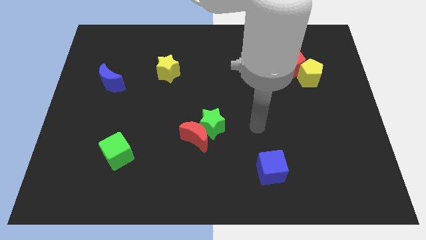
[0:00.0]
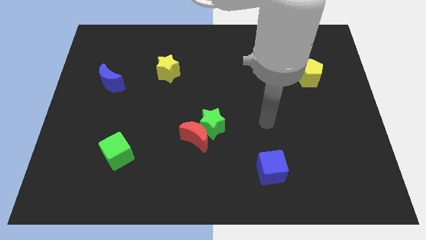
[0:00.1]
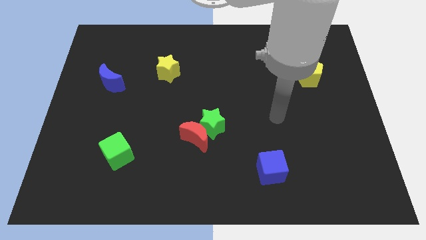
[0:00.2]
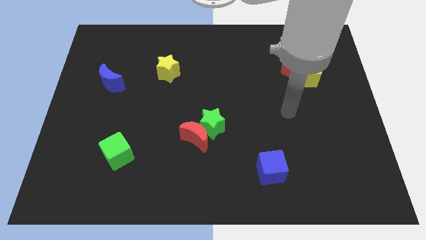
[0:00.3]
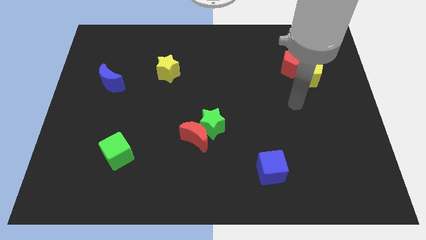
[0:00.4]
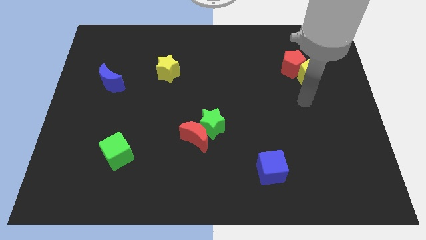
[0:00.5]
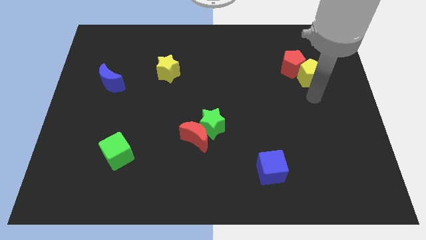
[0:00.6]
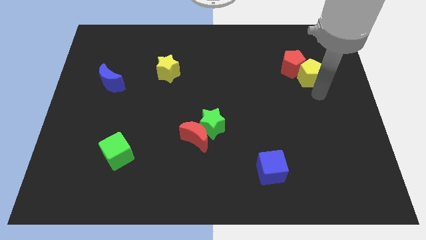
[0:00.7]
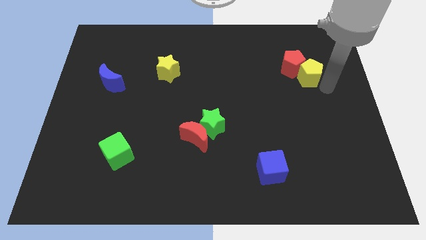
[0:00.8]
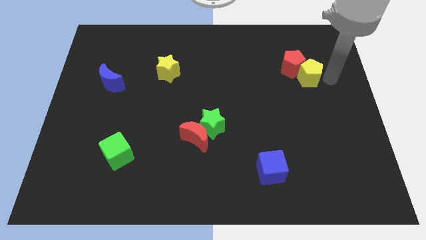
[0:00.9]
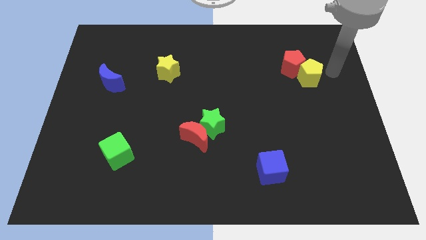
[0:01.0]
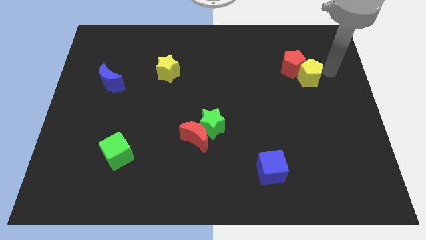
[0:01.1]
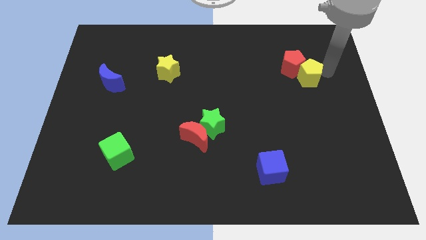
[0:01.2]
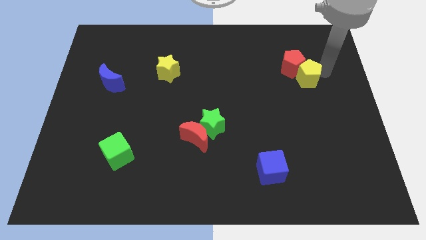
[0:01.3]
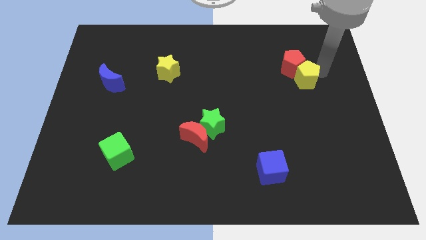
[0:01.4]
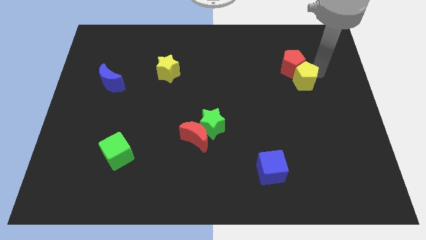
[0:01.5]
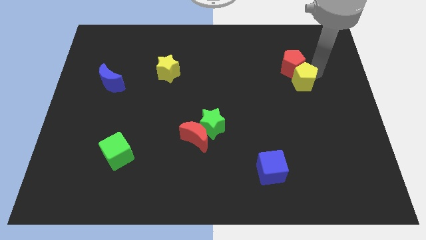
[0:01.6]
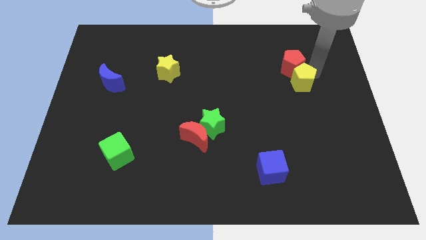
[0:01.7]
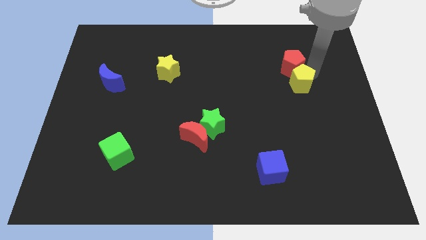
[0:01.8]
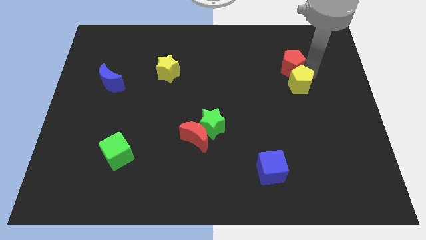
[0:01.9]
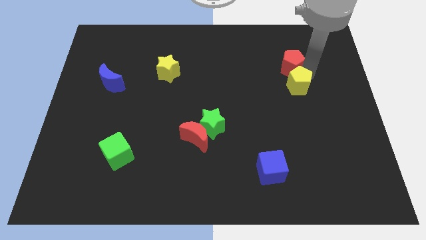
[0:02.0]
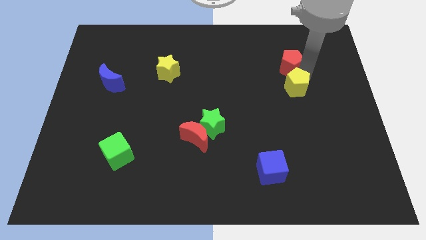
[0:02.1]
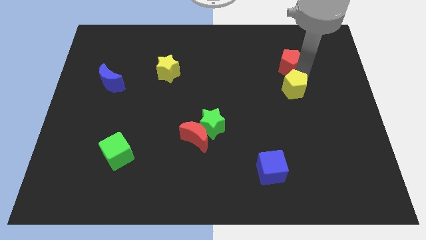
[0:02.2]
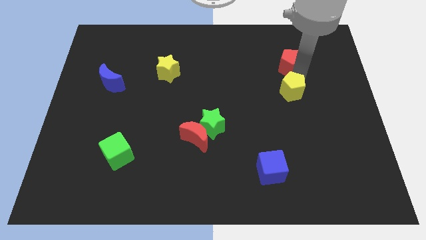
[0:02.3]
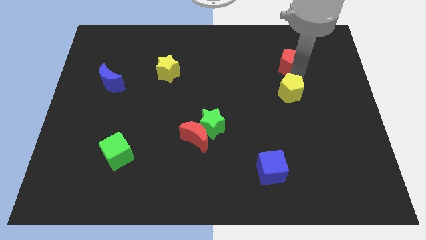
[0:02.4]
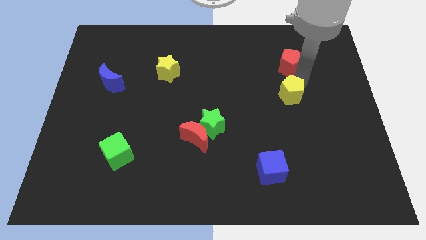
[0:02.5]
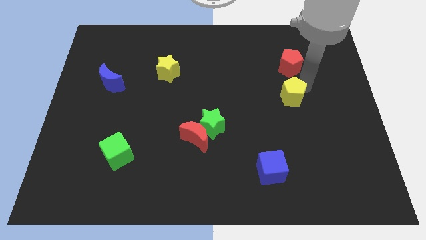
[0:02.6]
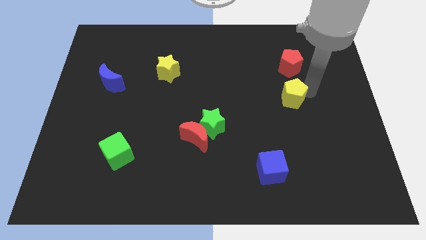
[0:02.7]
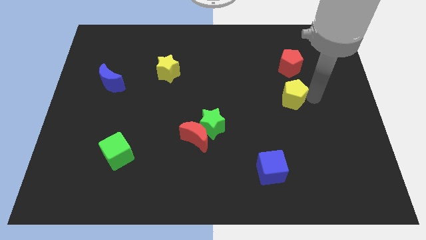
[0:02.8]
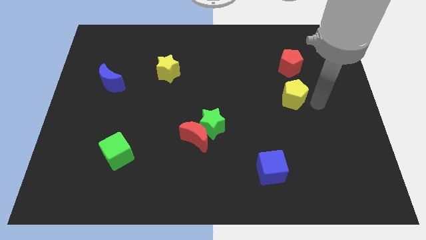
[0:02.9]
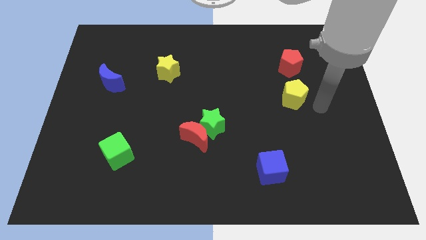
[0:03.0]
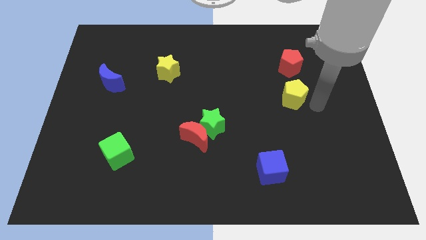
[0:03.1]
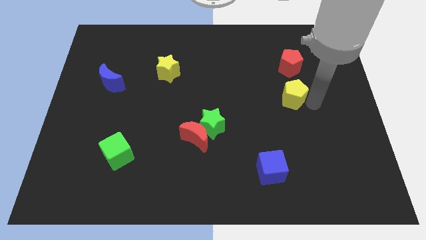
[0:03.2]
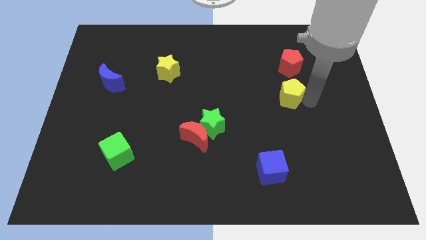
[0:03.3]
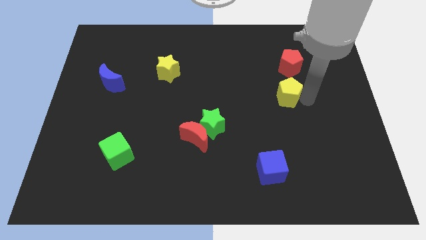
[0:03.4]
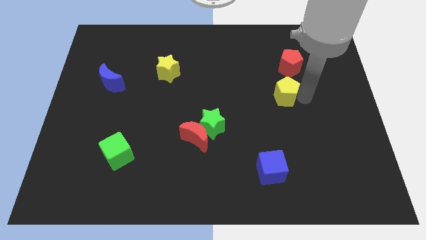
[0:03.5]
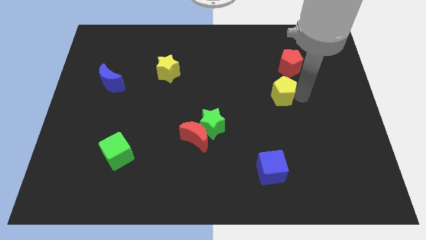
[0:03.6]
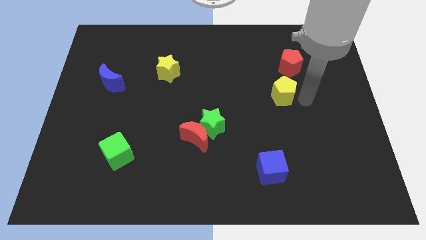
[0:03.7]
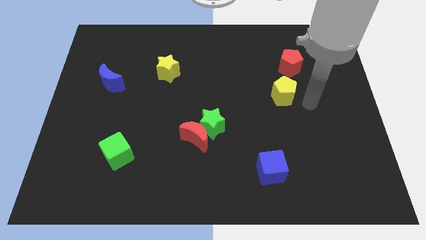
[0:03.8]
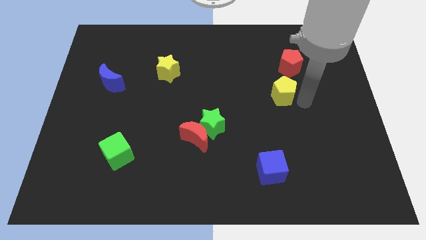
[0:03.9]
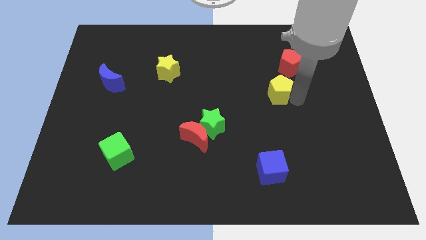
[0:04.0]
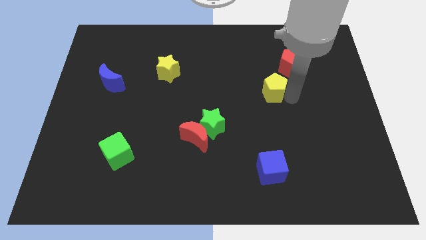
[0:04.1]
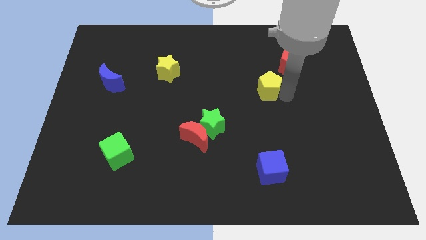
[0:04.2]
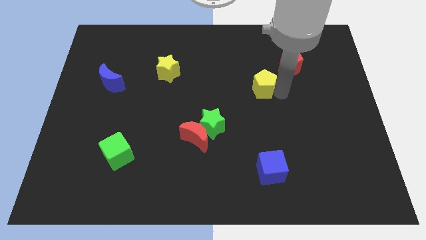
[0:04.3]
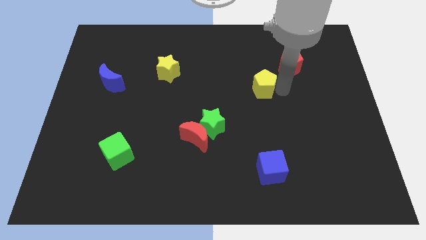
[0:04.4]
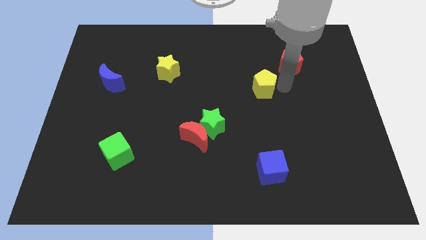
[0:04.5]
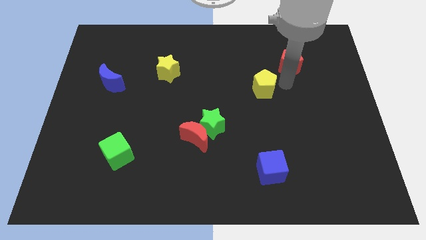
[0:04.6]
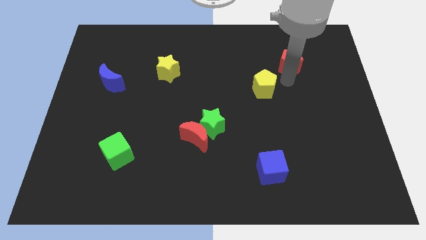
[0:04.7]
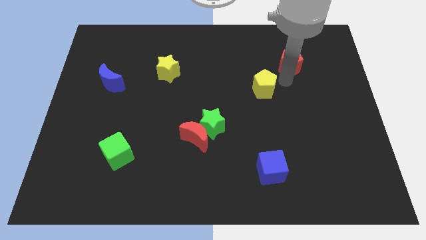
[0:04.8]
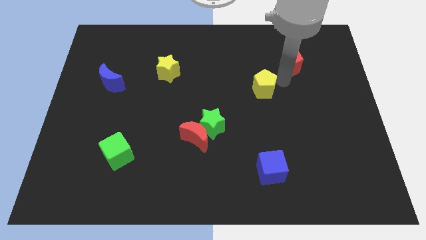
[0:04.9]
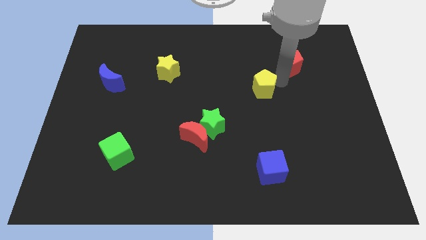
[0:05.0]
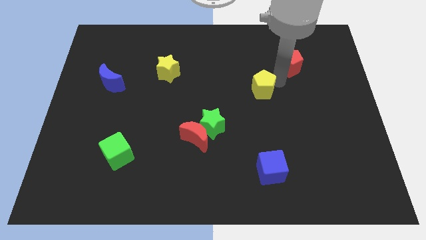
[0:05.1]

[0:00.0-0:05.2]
put the yellow pentagon to the middle

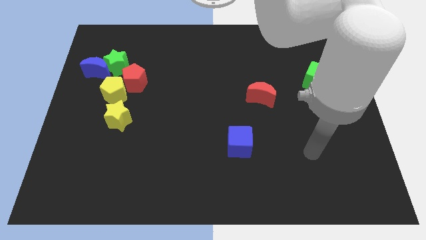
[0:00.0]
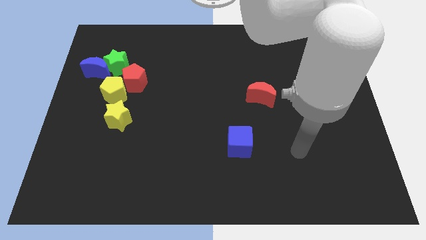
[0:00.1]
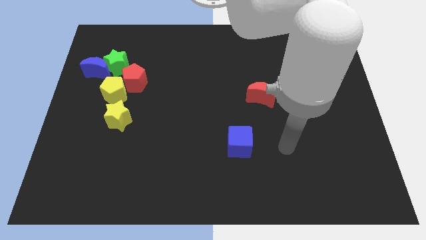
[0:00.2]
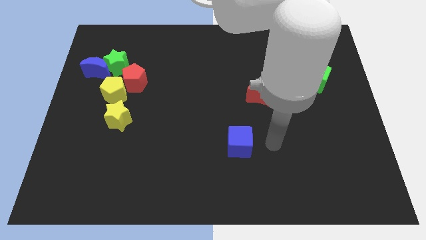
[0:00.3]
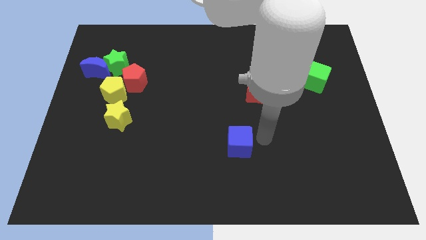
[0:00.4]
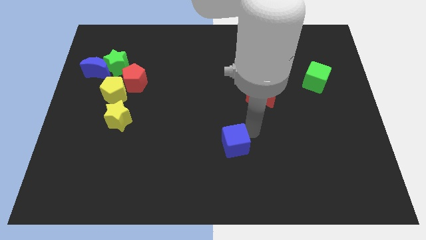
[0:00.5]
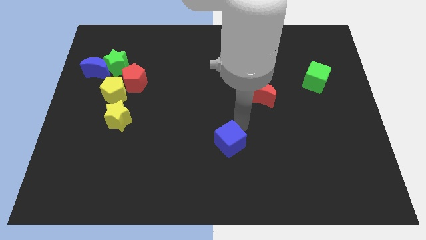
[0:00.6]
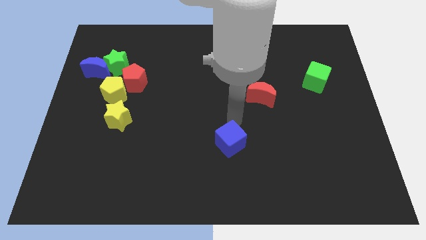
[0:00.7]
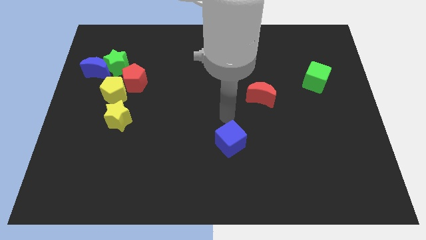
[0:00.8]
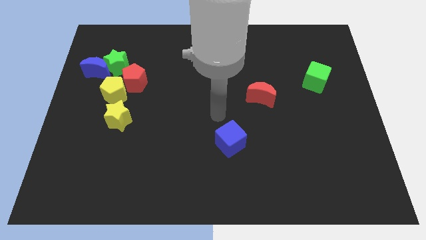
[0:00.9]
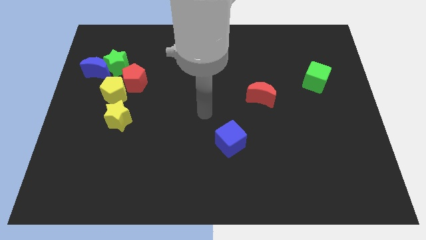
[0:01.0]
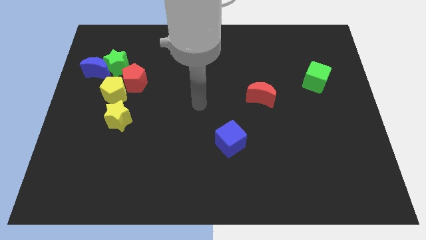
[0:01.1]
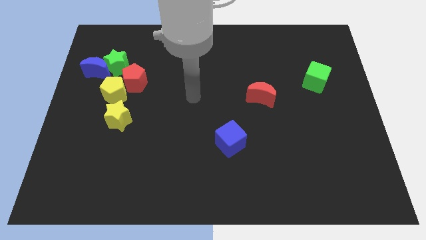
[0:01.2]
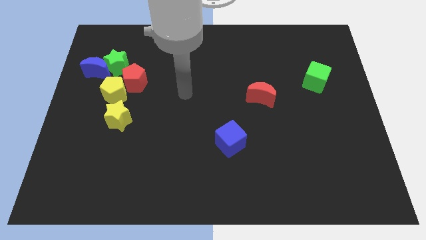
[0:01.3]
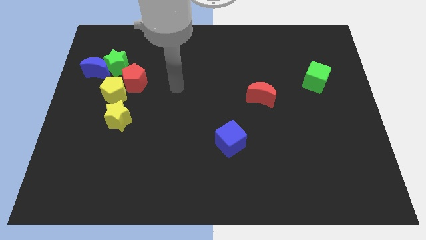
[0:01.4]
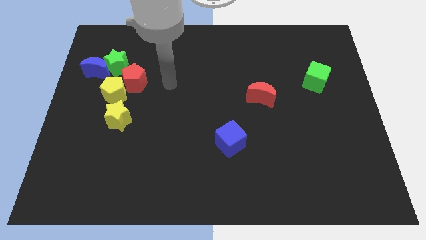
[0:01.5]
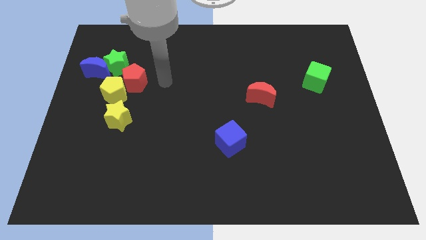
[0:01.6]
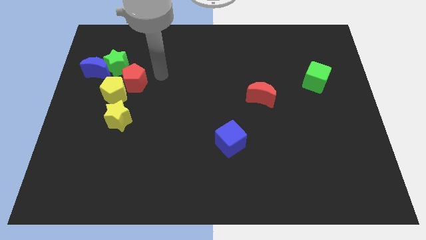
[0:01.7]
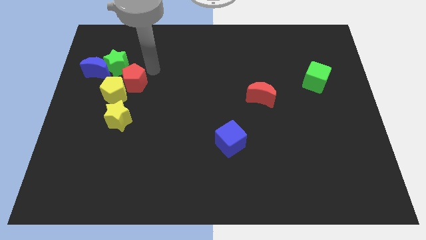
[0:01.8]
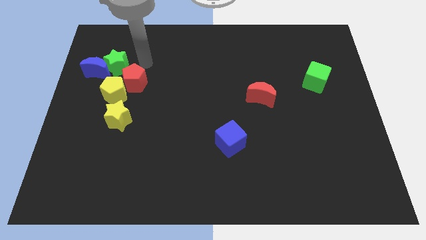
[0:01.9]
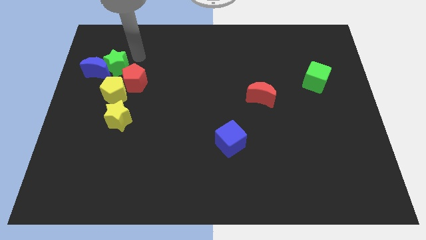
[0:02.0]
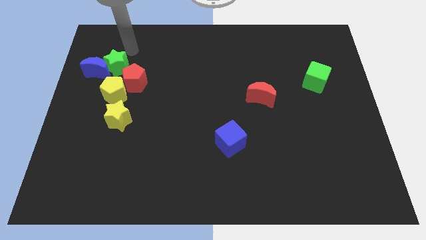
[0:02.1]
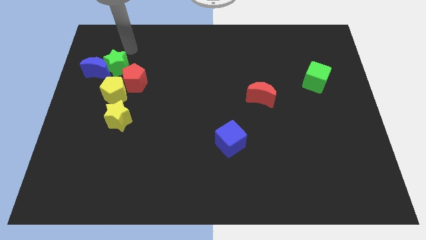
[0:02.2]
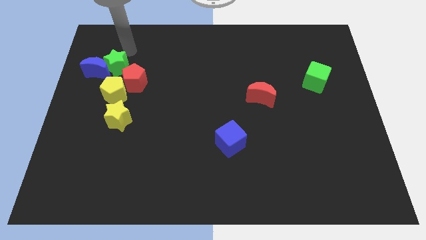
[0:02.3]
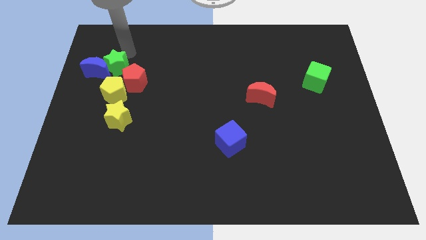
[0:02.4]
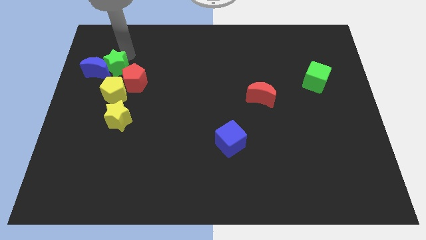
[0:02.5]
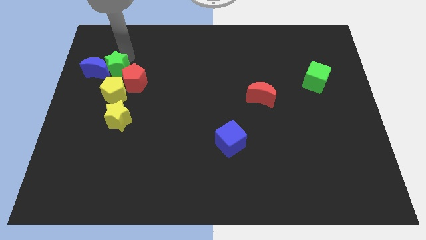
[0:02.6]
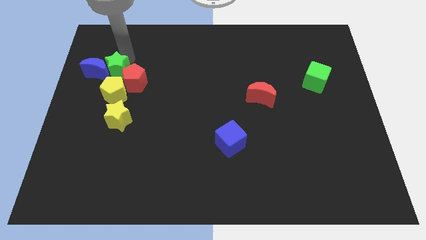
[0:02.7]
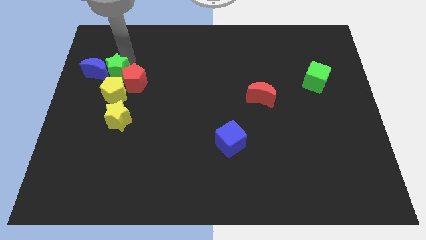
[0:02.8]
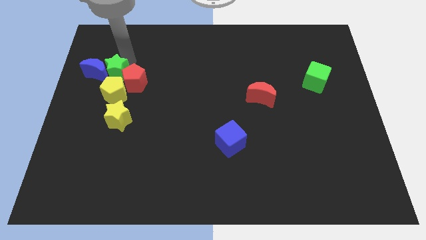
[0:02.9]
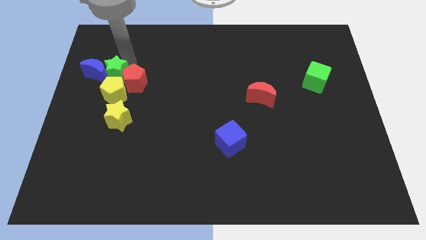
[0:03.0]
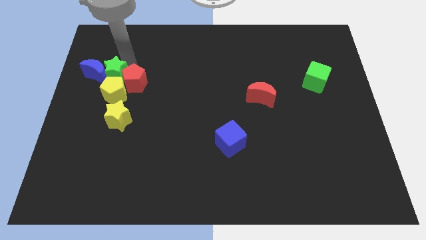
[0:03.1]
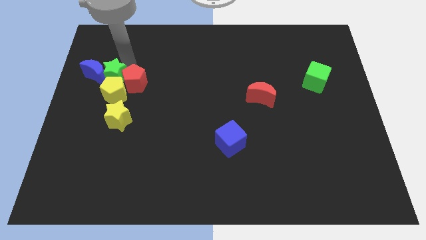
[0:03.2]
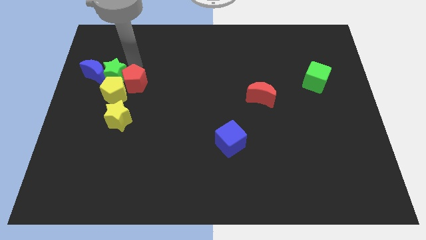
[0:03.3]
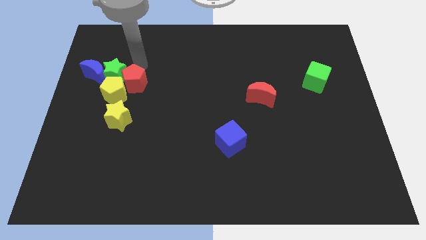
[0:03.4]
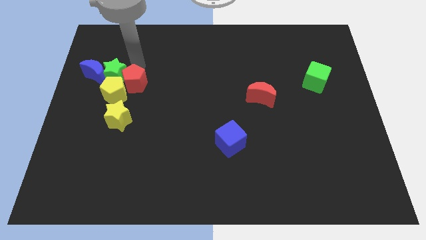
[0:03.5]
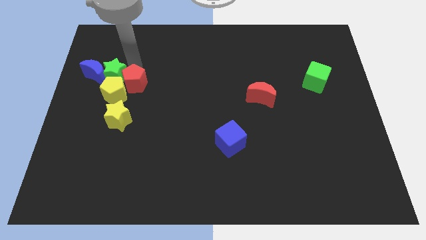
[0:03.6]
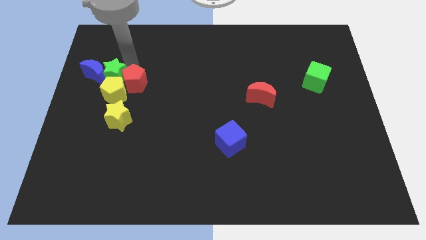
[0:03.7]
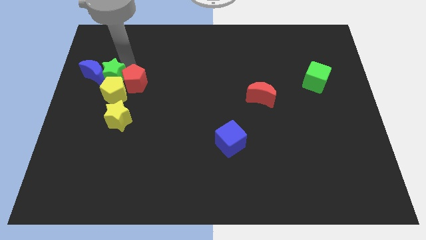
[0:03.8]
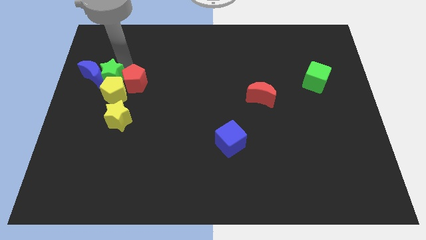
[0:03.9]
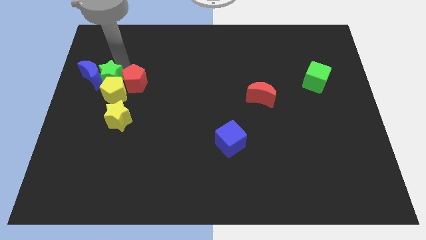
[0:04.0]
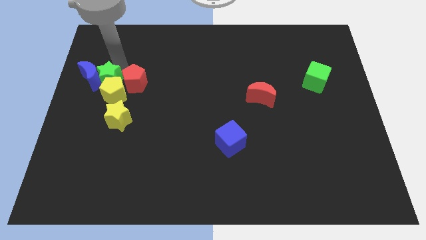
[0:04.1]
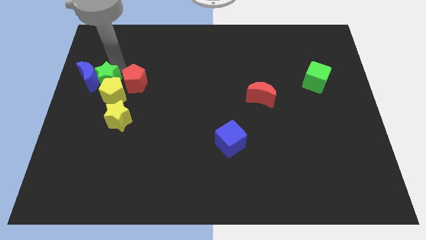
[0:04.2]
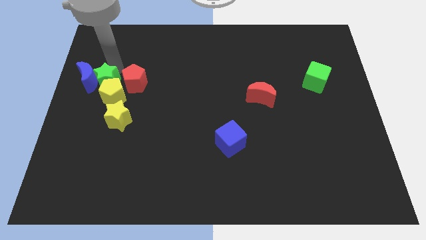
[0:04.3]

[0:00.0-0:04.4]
put the green star to the center left
